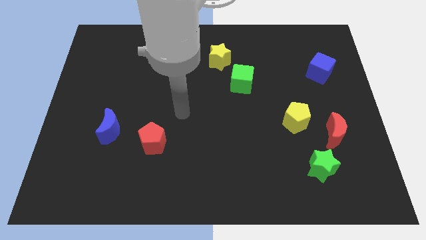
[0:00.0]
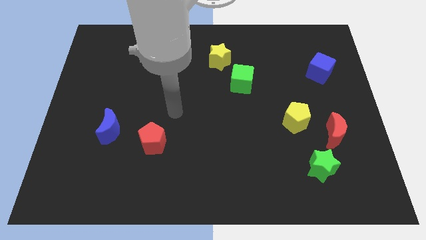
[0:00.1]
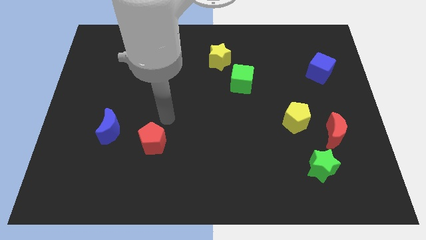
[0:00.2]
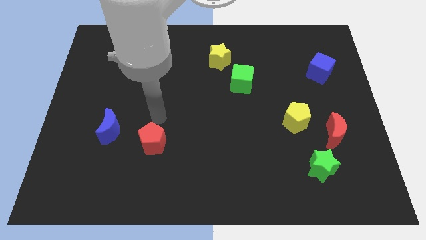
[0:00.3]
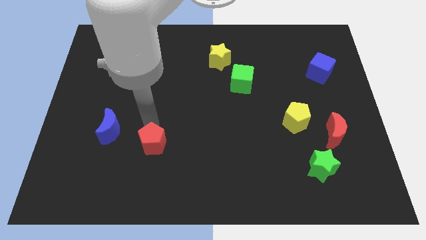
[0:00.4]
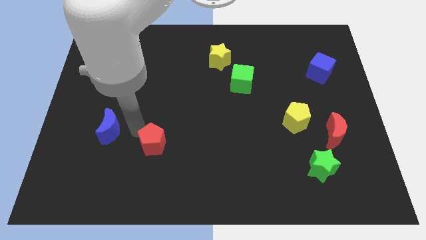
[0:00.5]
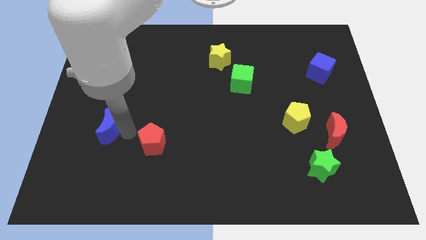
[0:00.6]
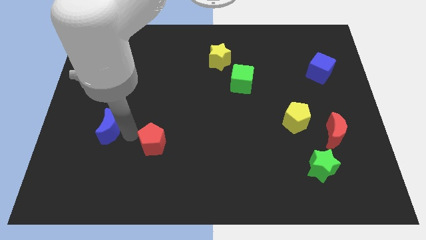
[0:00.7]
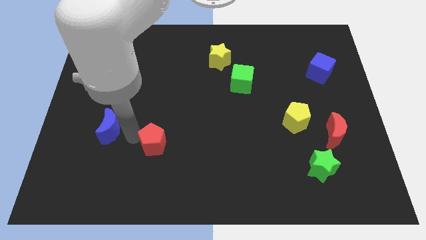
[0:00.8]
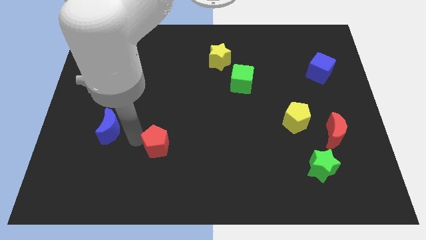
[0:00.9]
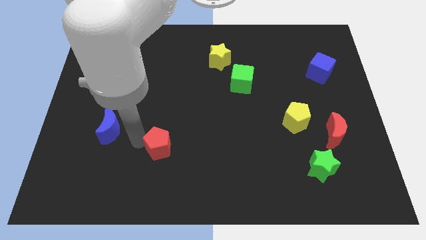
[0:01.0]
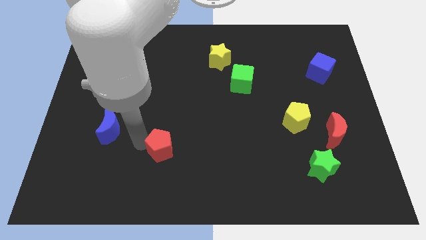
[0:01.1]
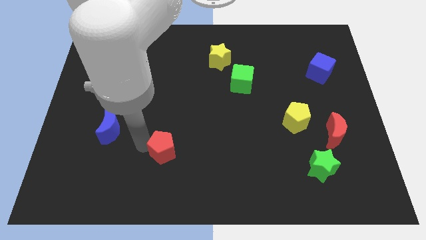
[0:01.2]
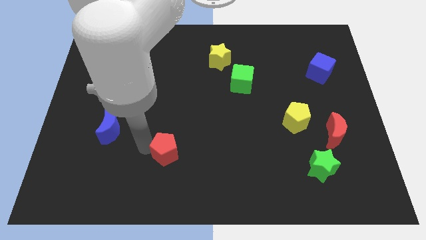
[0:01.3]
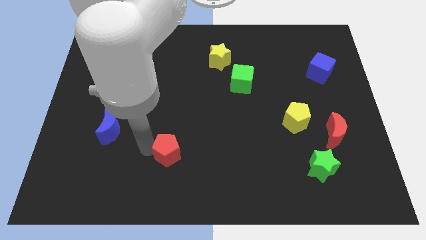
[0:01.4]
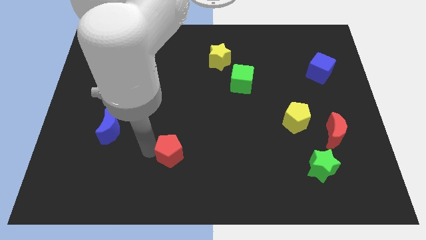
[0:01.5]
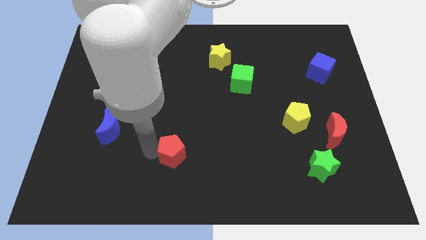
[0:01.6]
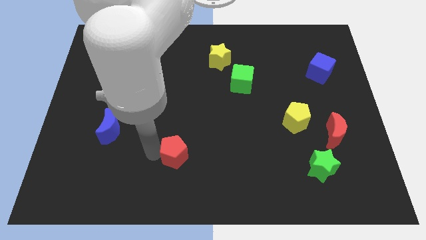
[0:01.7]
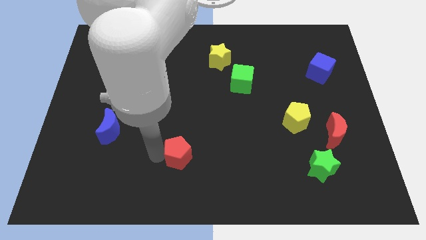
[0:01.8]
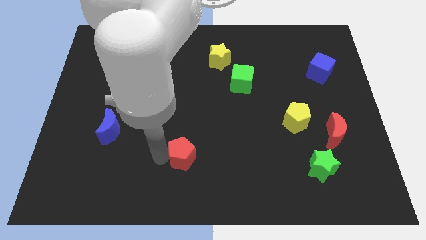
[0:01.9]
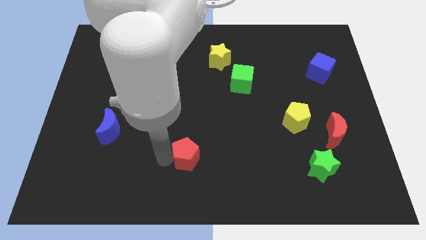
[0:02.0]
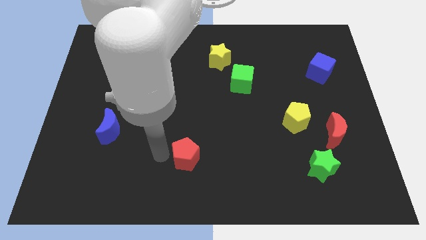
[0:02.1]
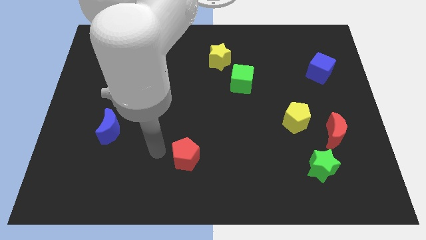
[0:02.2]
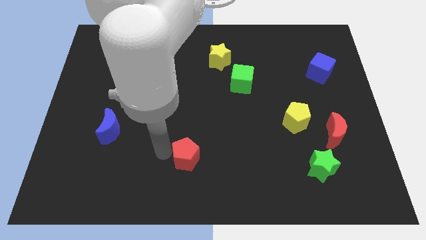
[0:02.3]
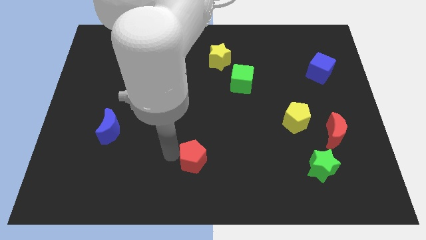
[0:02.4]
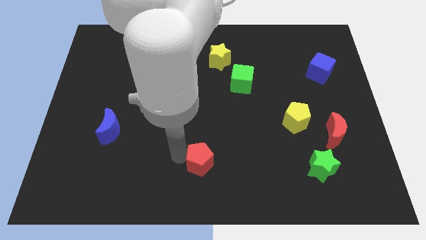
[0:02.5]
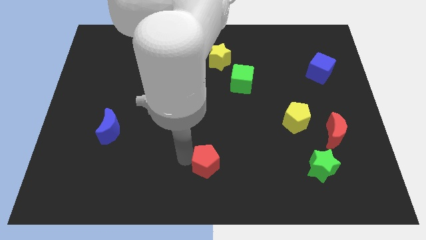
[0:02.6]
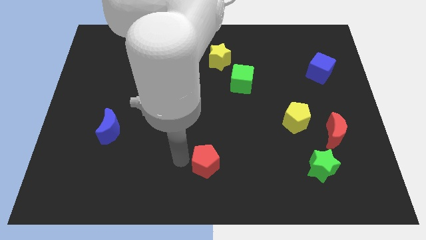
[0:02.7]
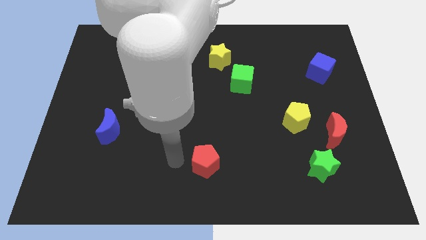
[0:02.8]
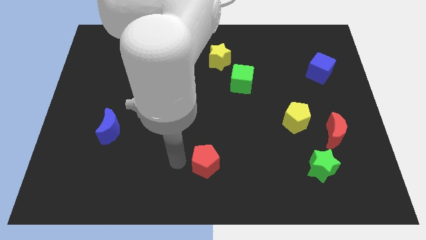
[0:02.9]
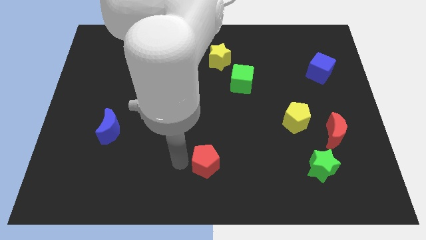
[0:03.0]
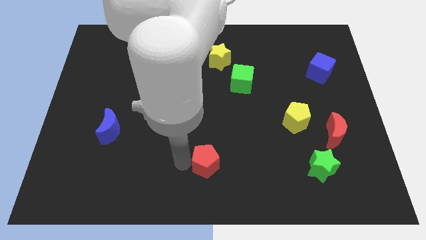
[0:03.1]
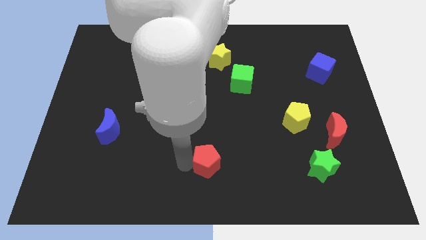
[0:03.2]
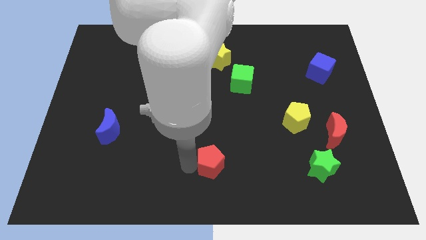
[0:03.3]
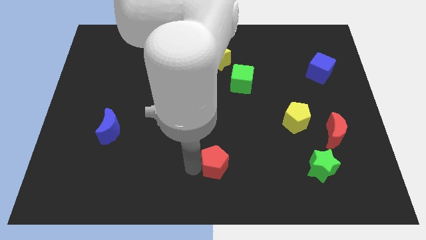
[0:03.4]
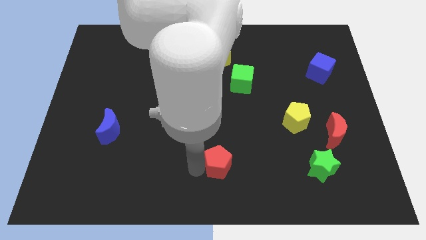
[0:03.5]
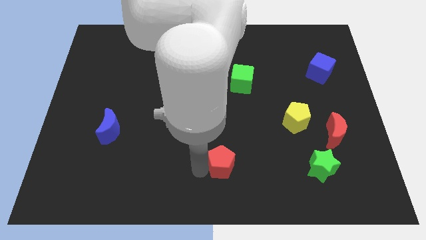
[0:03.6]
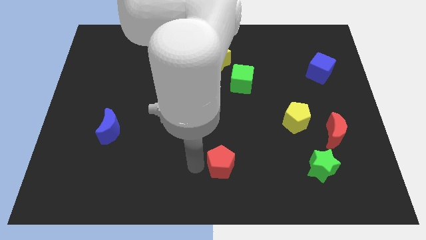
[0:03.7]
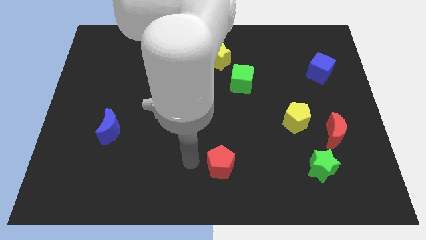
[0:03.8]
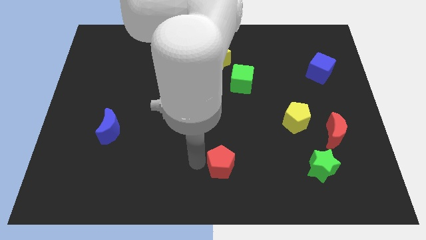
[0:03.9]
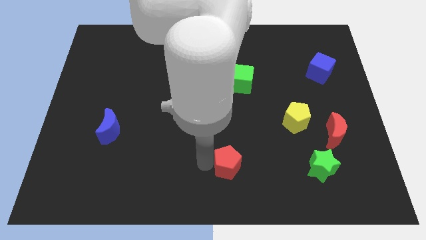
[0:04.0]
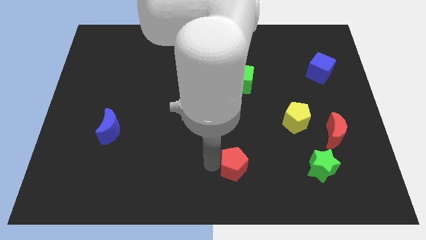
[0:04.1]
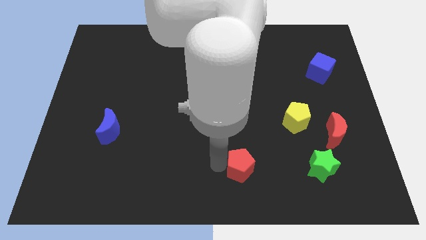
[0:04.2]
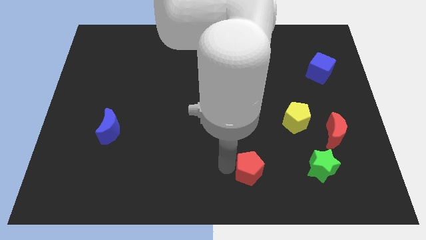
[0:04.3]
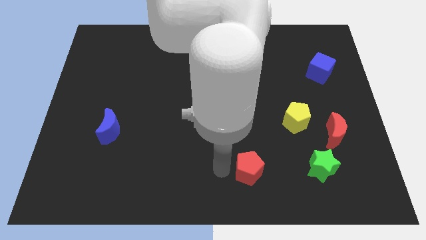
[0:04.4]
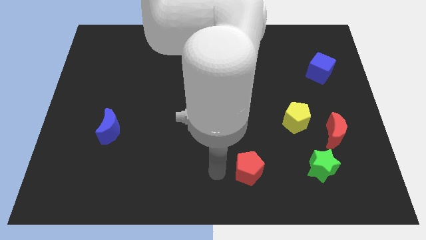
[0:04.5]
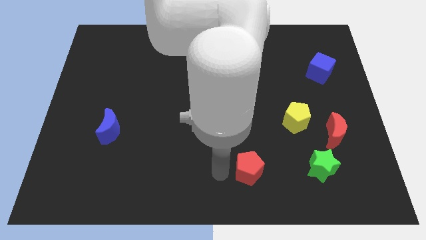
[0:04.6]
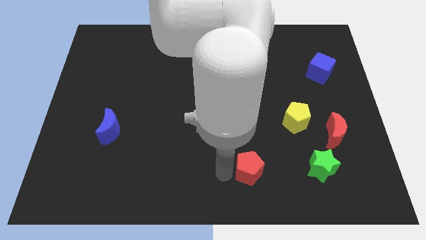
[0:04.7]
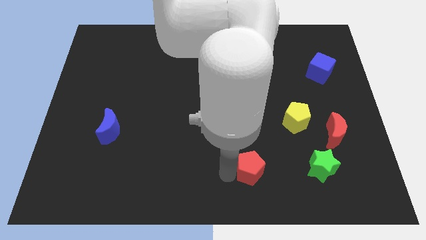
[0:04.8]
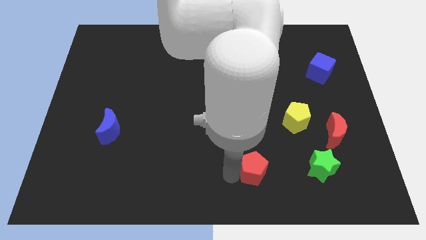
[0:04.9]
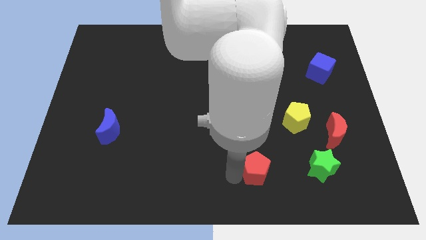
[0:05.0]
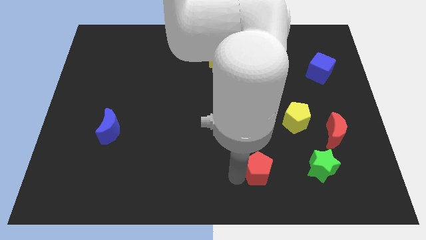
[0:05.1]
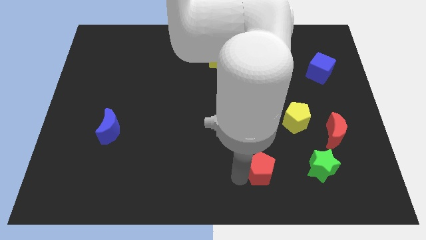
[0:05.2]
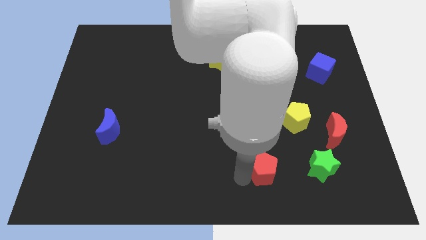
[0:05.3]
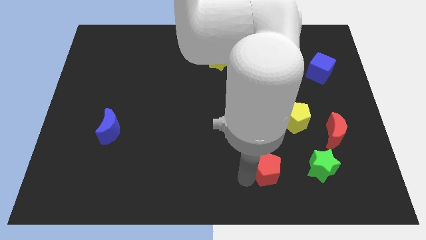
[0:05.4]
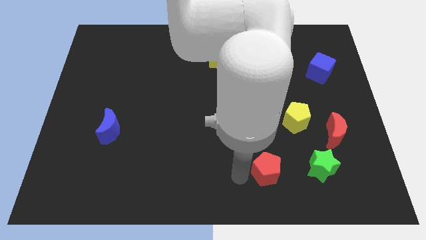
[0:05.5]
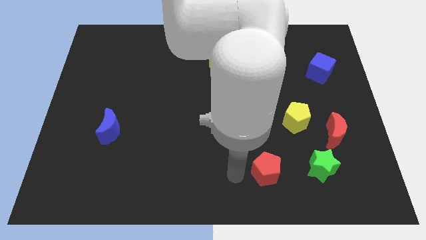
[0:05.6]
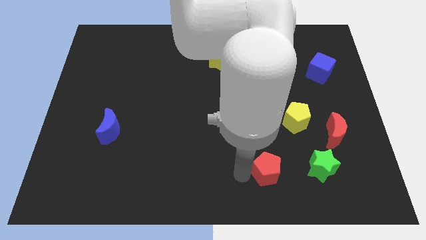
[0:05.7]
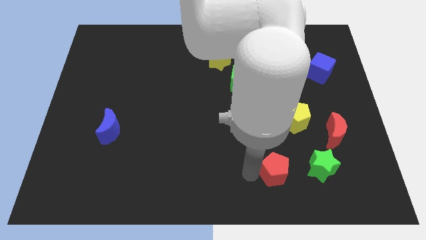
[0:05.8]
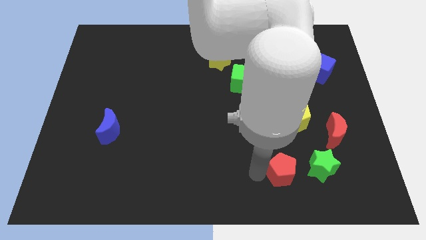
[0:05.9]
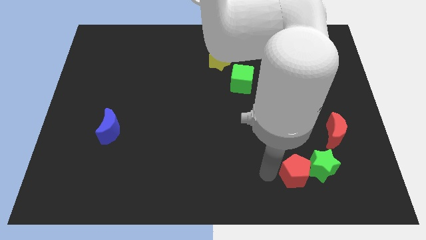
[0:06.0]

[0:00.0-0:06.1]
move the red pentagon close to the green star

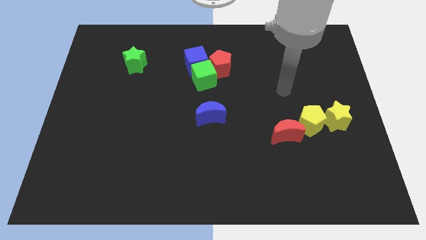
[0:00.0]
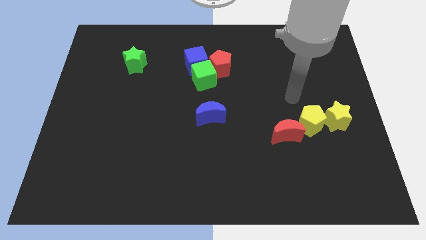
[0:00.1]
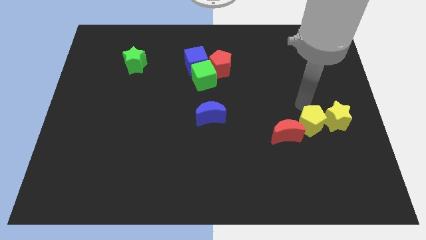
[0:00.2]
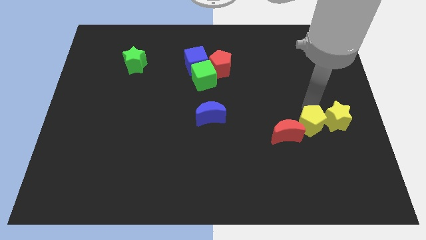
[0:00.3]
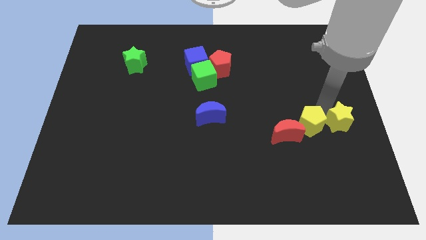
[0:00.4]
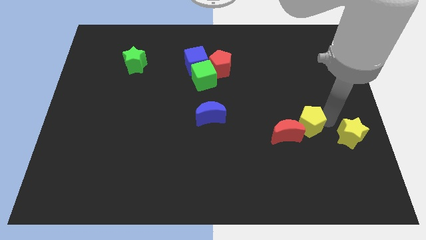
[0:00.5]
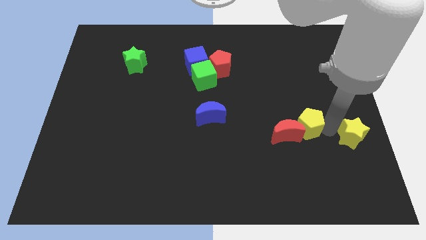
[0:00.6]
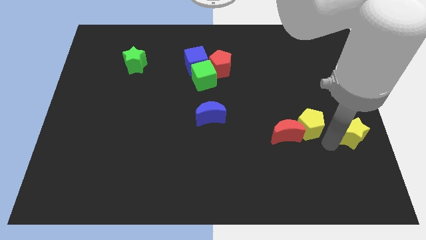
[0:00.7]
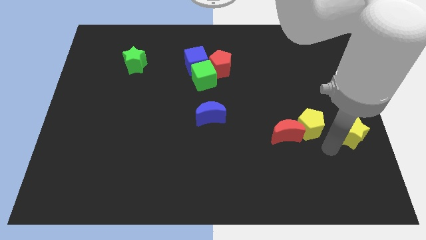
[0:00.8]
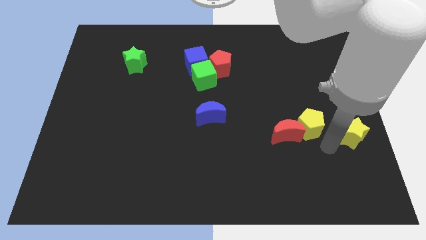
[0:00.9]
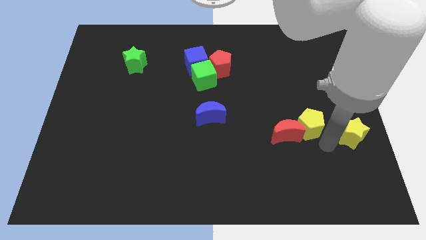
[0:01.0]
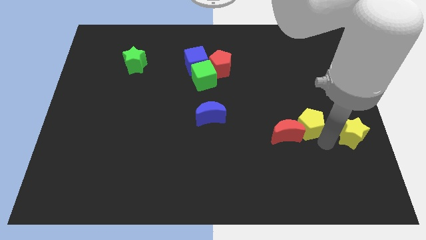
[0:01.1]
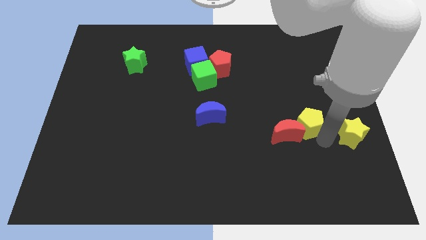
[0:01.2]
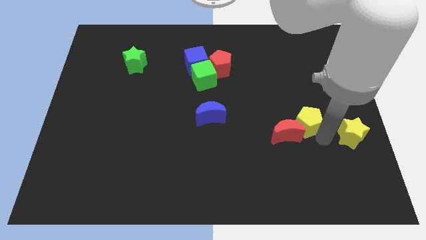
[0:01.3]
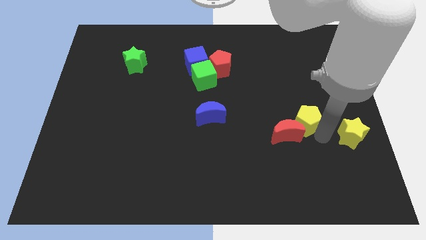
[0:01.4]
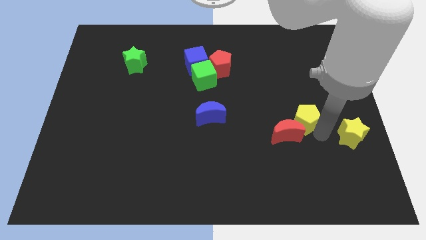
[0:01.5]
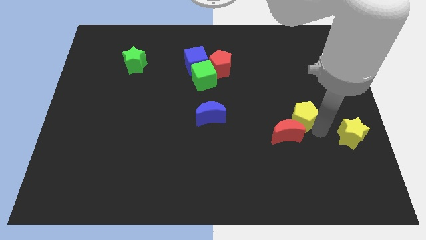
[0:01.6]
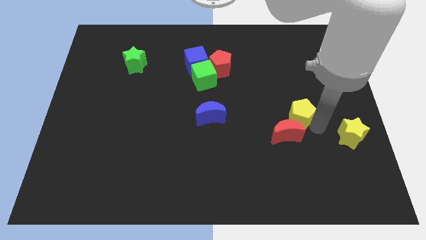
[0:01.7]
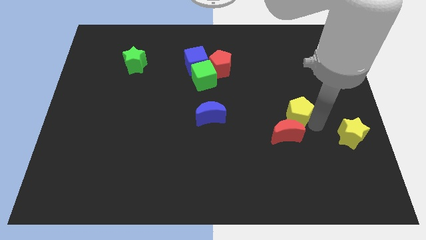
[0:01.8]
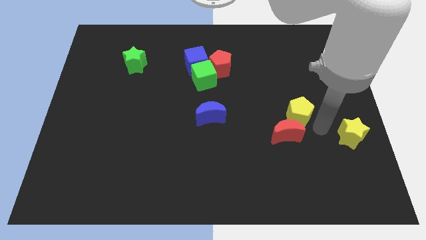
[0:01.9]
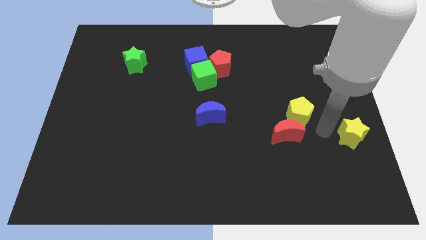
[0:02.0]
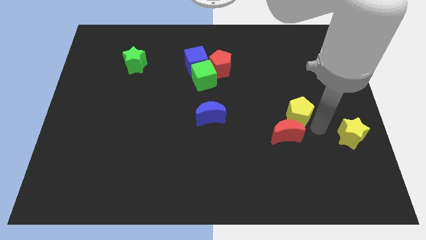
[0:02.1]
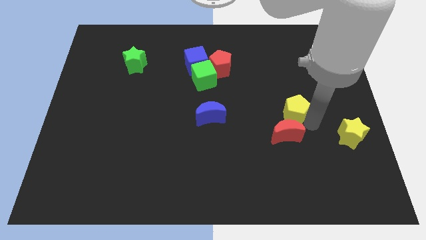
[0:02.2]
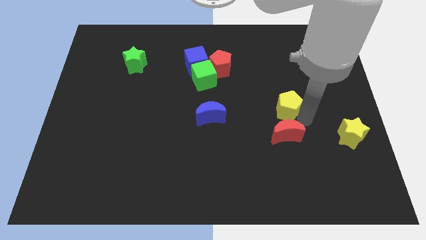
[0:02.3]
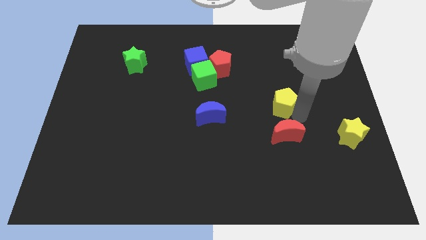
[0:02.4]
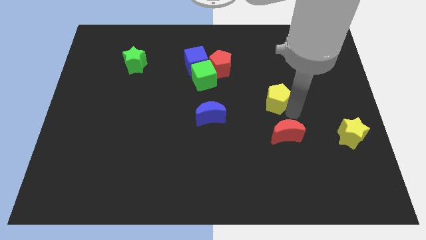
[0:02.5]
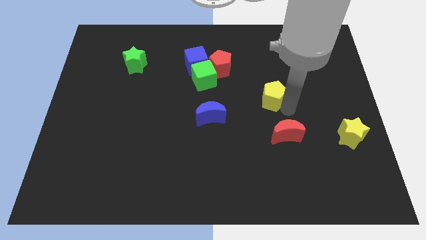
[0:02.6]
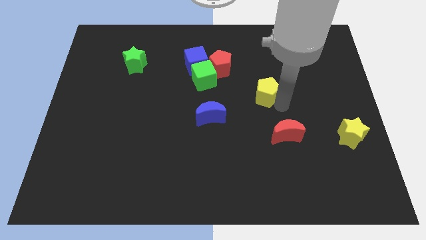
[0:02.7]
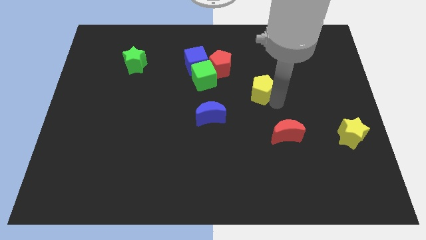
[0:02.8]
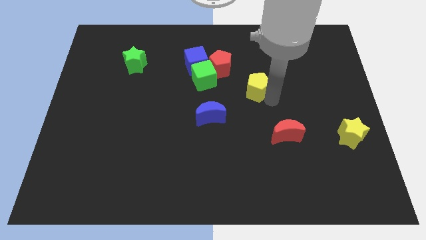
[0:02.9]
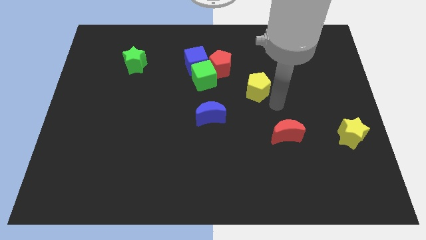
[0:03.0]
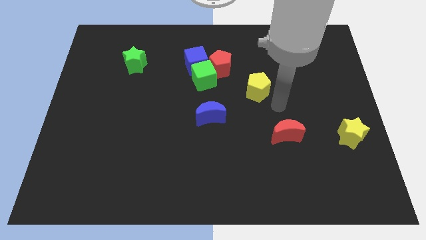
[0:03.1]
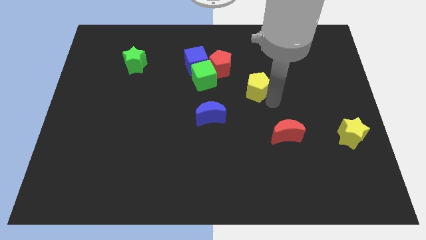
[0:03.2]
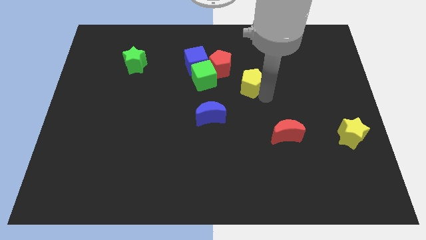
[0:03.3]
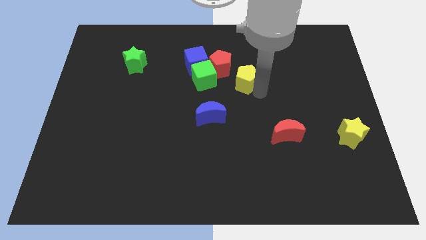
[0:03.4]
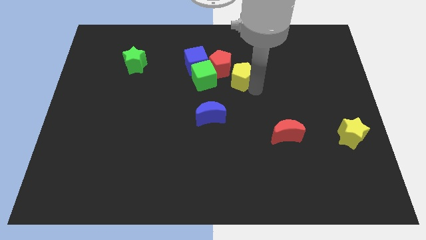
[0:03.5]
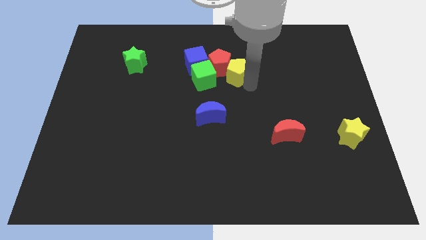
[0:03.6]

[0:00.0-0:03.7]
move the yellow pentagon towards the red pentagon
